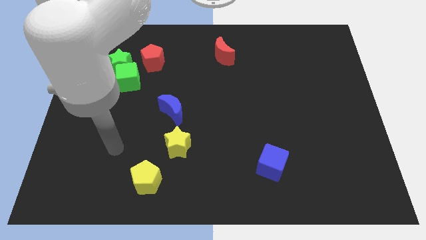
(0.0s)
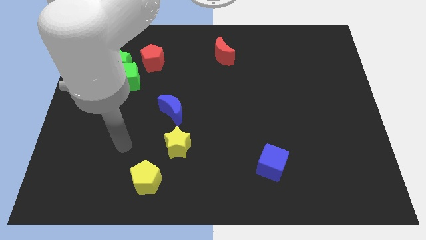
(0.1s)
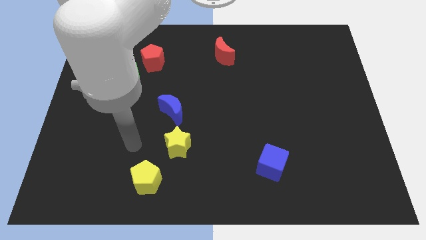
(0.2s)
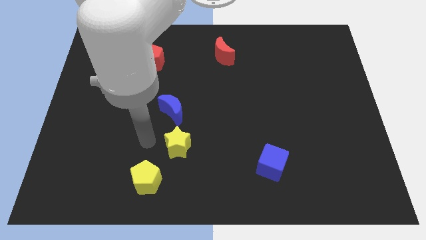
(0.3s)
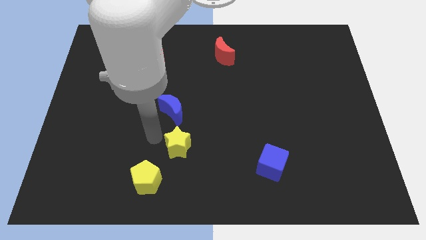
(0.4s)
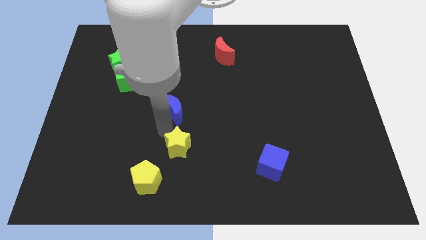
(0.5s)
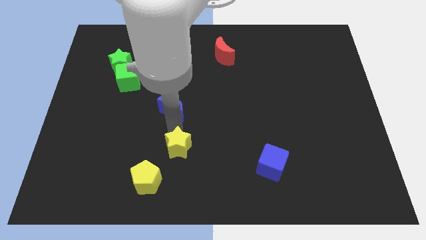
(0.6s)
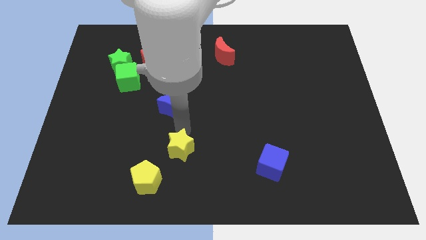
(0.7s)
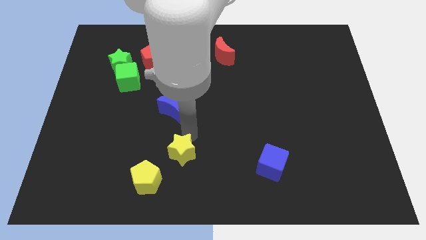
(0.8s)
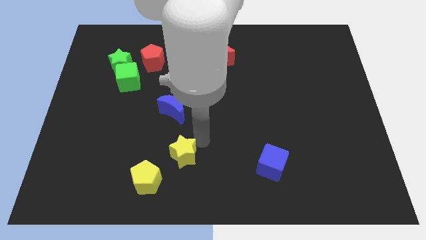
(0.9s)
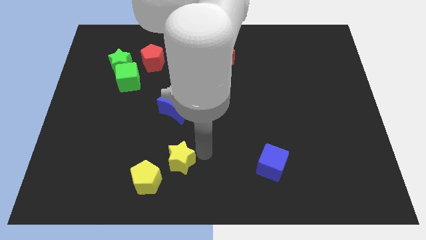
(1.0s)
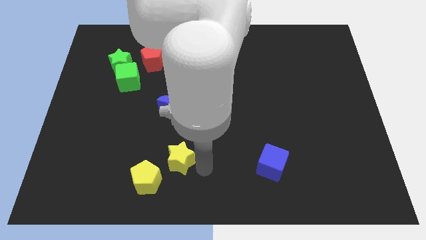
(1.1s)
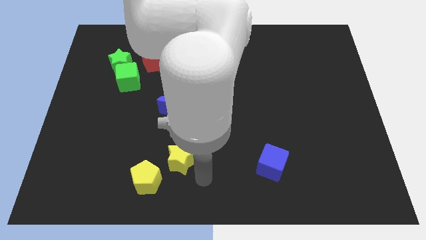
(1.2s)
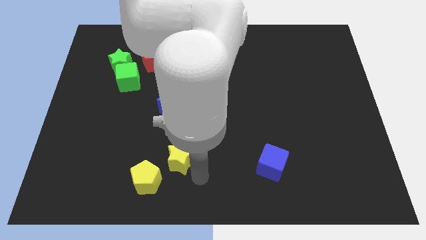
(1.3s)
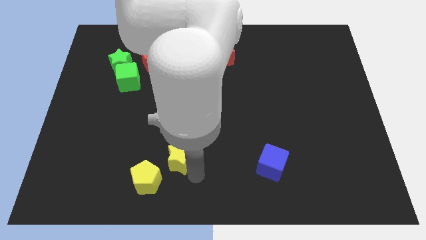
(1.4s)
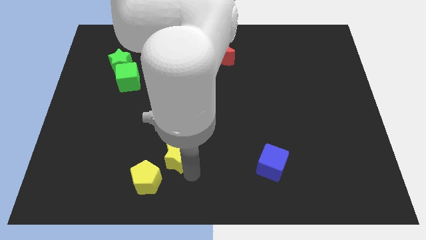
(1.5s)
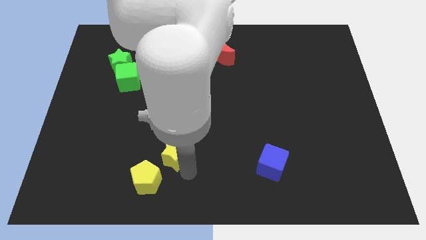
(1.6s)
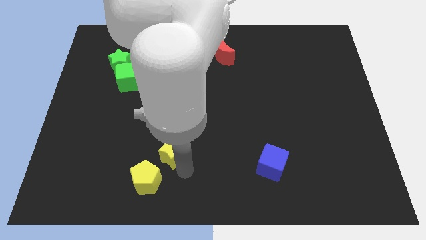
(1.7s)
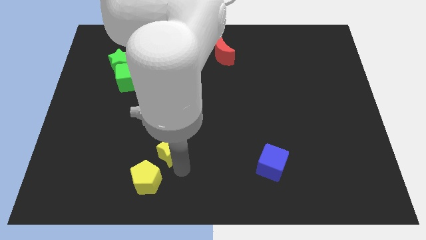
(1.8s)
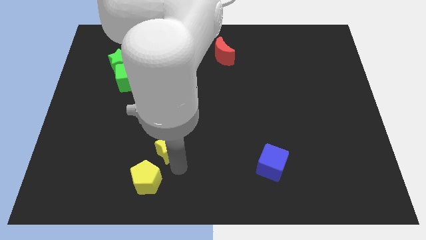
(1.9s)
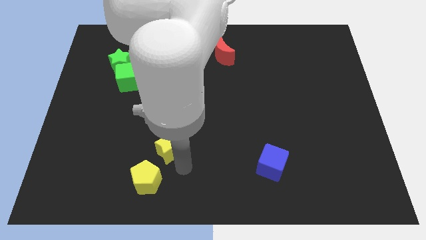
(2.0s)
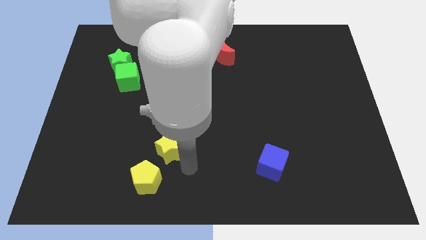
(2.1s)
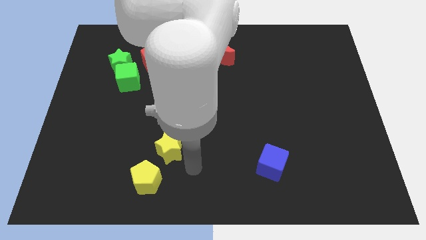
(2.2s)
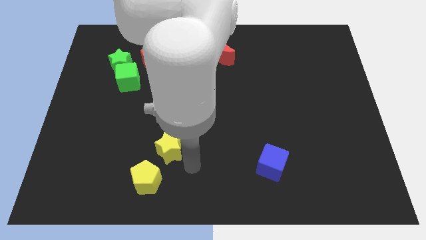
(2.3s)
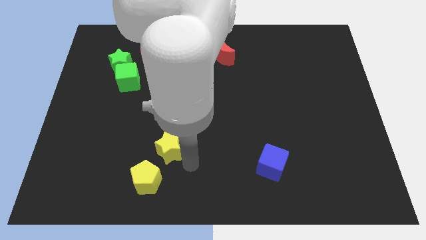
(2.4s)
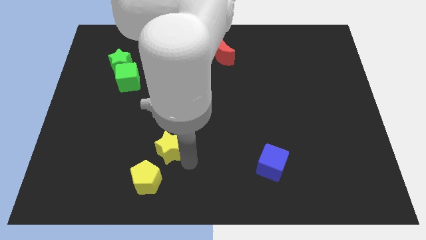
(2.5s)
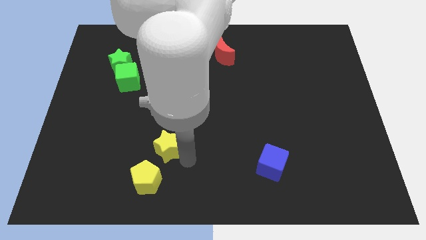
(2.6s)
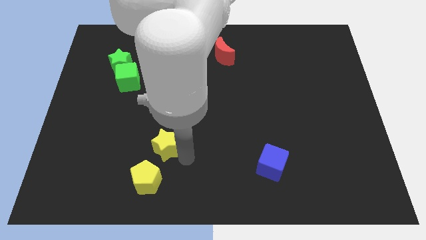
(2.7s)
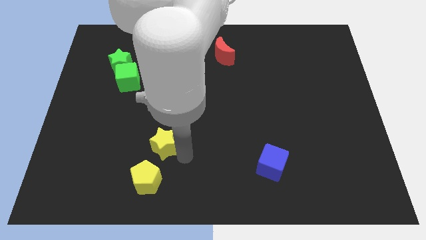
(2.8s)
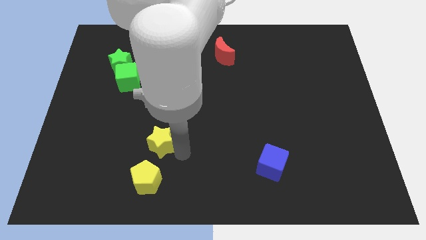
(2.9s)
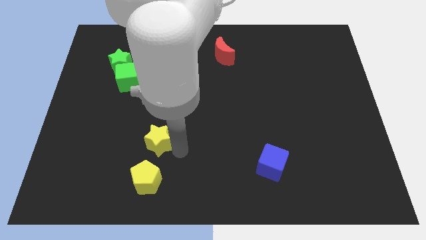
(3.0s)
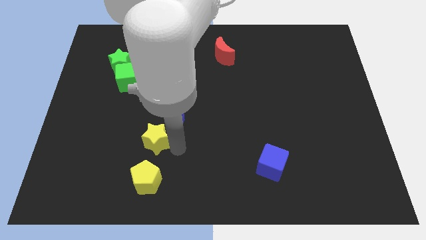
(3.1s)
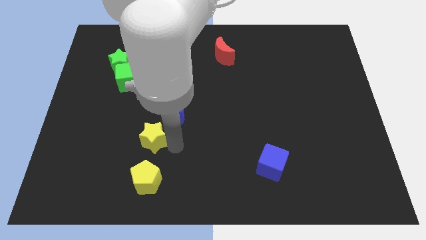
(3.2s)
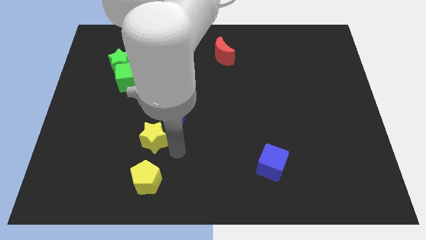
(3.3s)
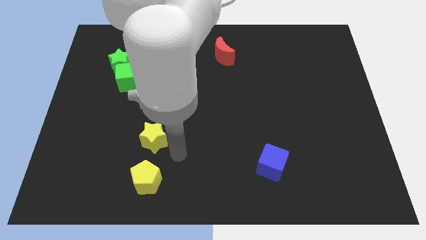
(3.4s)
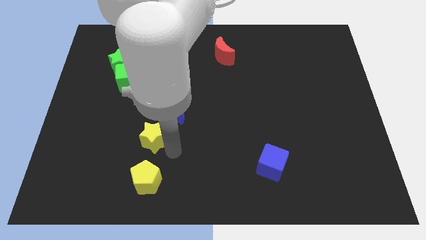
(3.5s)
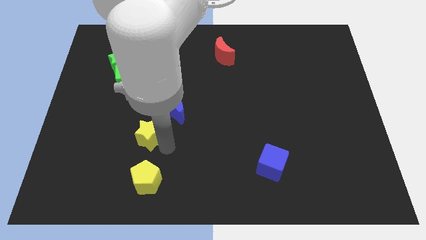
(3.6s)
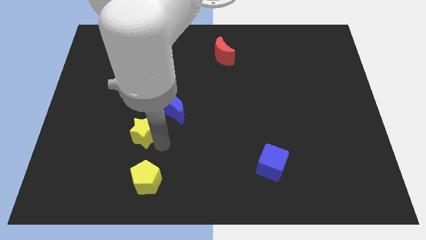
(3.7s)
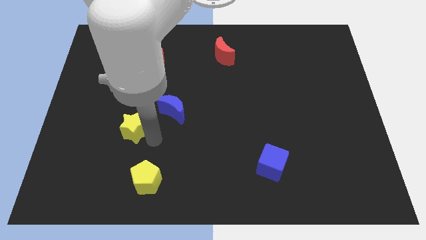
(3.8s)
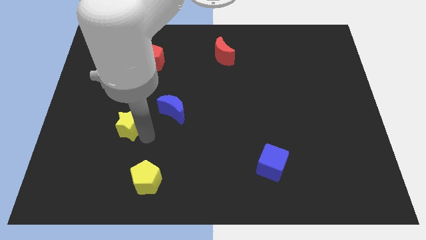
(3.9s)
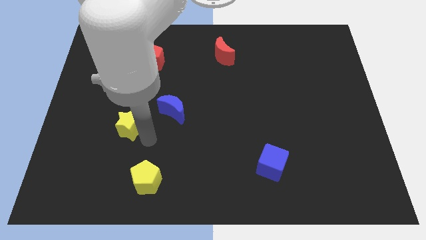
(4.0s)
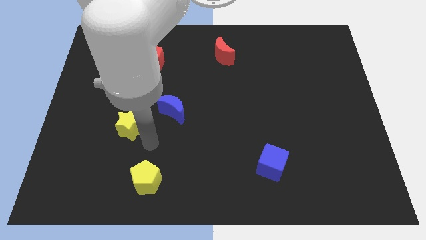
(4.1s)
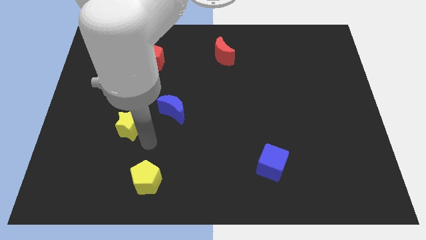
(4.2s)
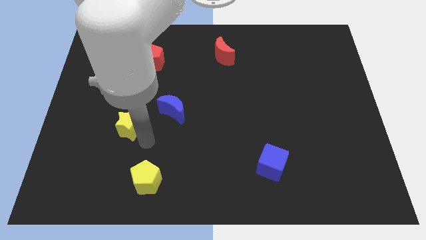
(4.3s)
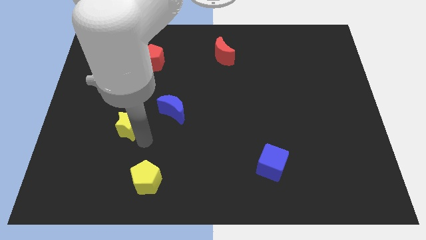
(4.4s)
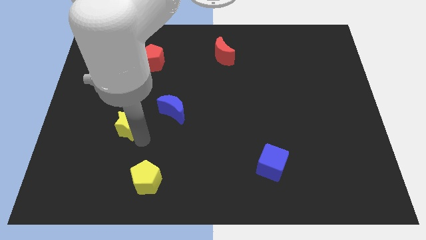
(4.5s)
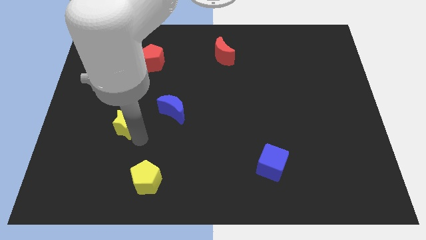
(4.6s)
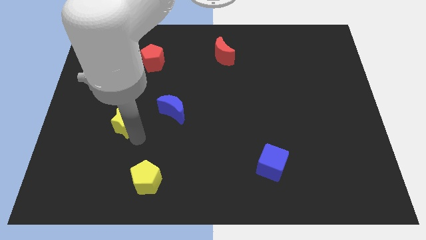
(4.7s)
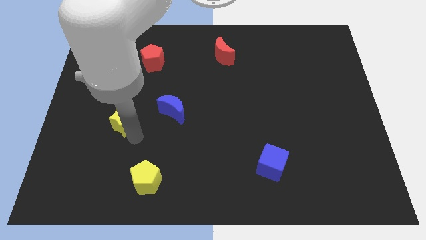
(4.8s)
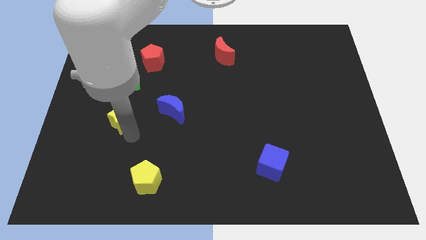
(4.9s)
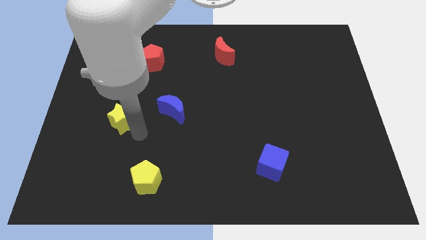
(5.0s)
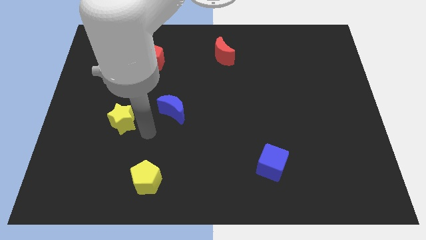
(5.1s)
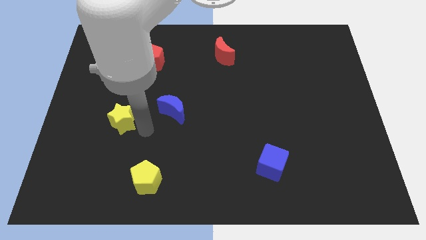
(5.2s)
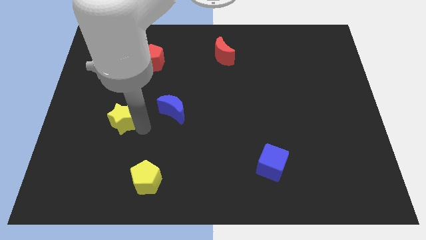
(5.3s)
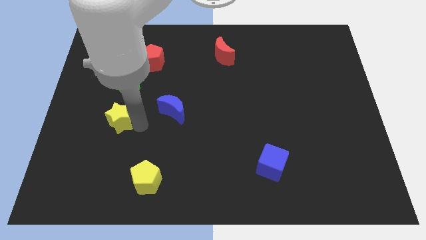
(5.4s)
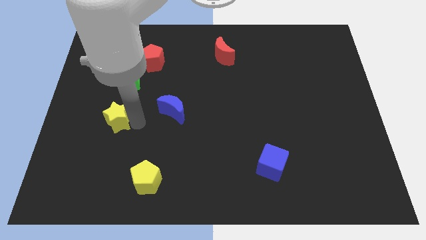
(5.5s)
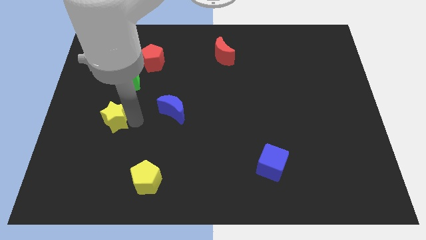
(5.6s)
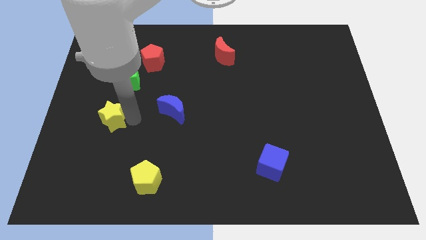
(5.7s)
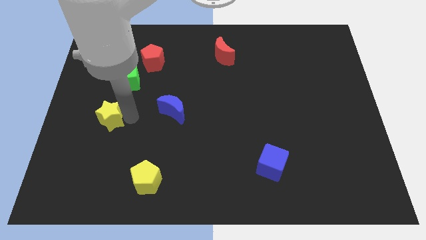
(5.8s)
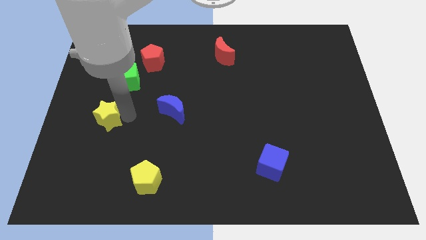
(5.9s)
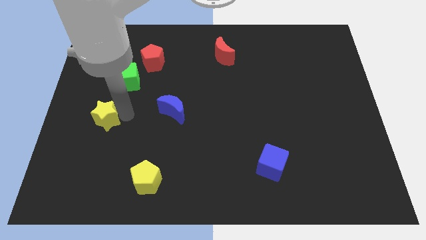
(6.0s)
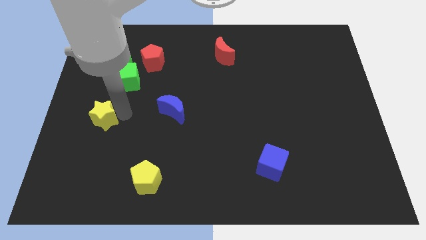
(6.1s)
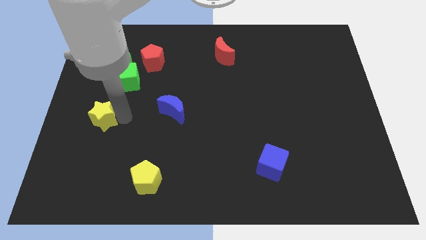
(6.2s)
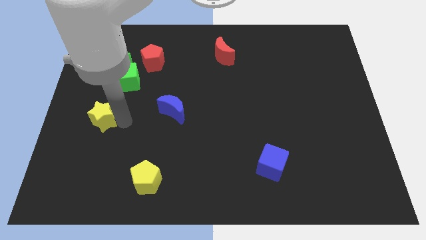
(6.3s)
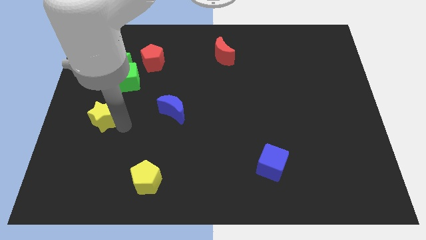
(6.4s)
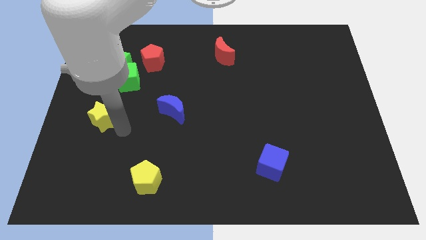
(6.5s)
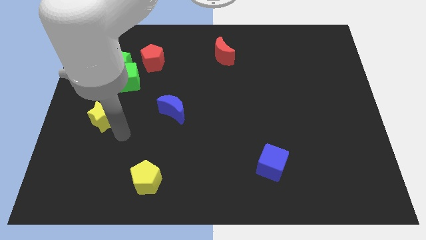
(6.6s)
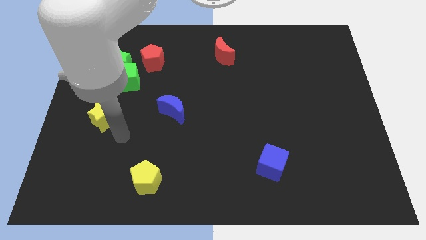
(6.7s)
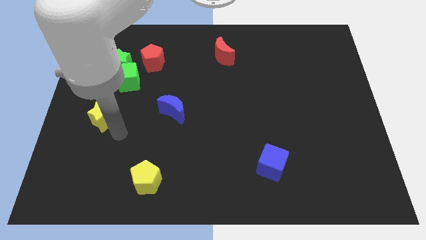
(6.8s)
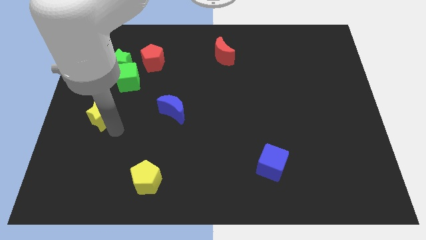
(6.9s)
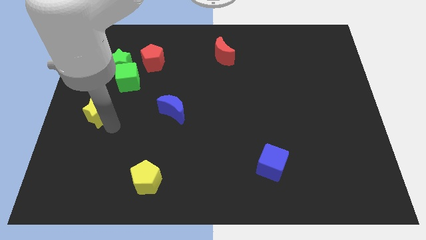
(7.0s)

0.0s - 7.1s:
put the yellow star to the center left
